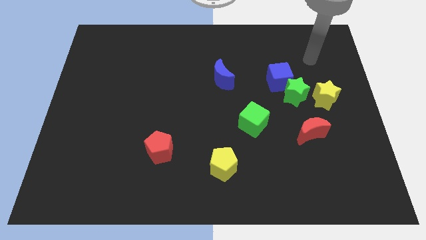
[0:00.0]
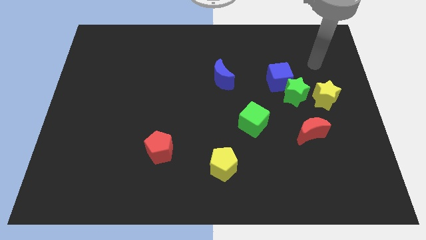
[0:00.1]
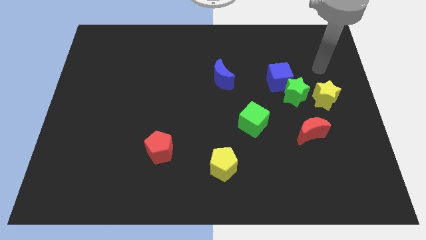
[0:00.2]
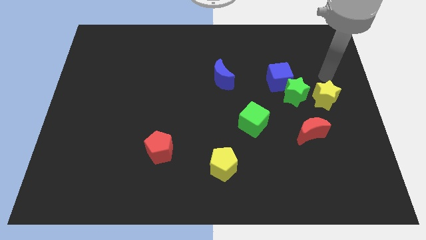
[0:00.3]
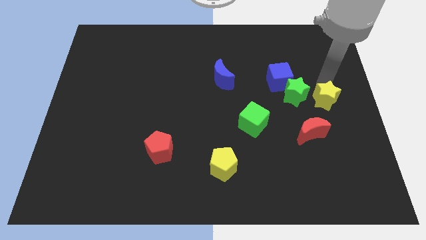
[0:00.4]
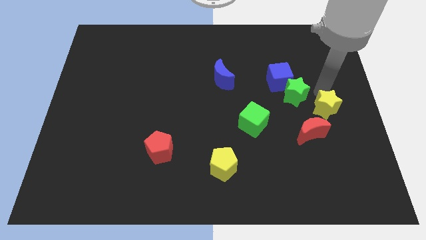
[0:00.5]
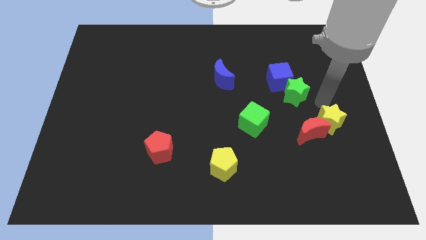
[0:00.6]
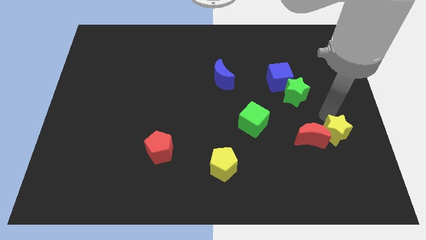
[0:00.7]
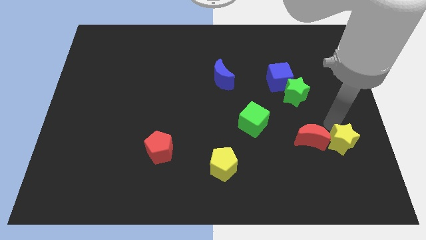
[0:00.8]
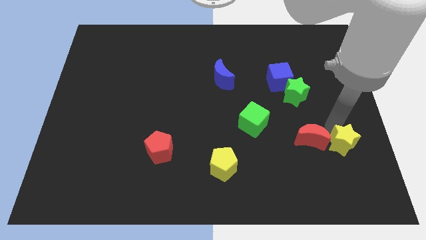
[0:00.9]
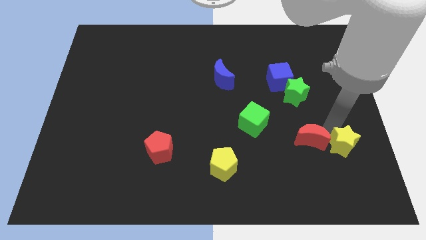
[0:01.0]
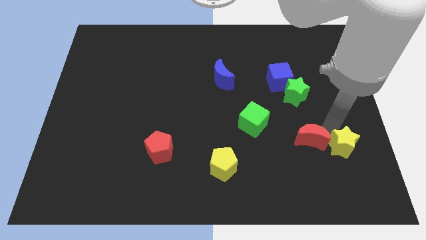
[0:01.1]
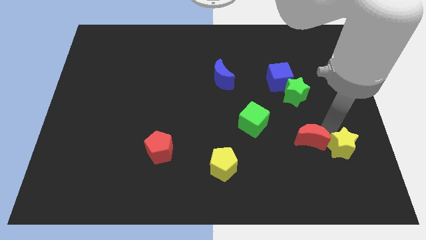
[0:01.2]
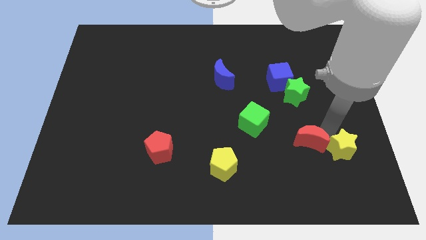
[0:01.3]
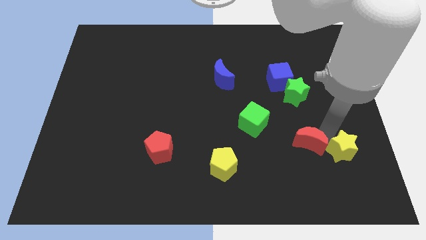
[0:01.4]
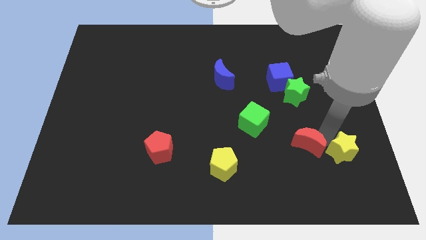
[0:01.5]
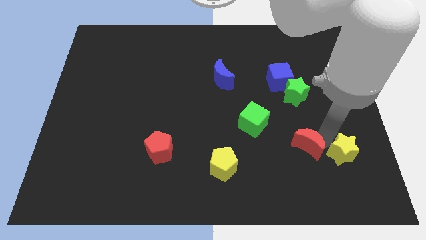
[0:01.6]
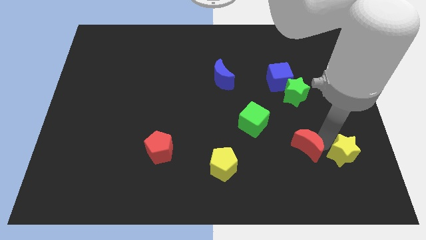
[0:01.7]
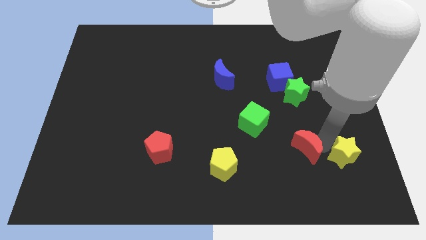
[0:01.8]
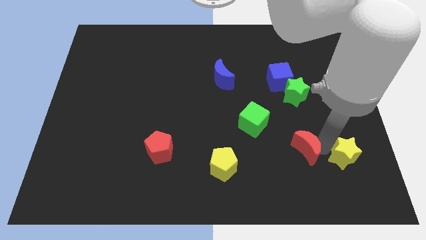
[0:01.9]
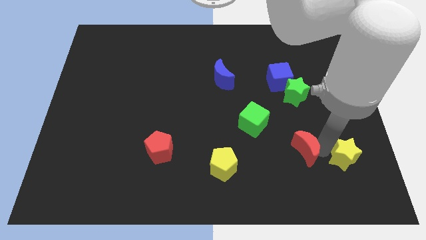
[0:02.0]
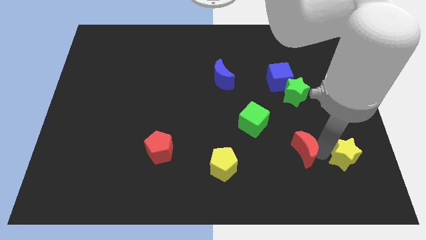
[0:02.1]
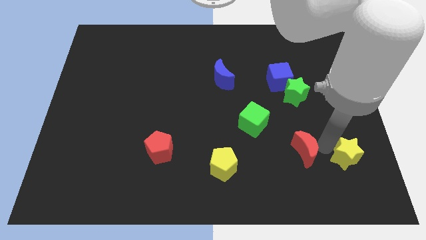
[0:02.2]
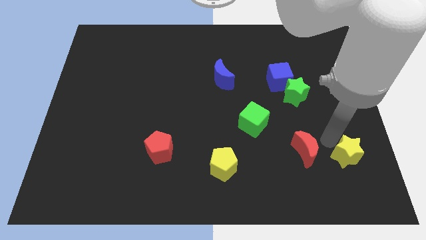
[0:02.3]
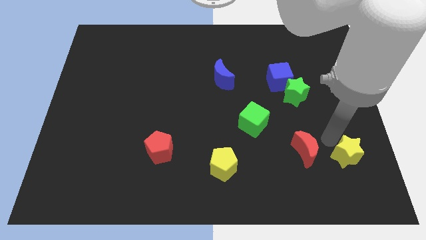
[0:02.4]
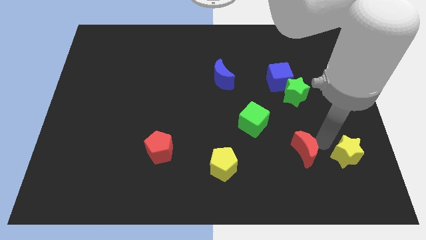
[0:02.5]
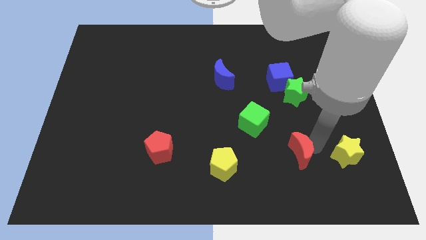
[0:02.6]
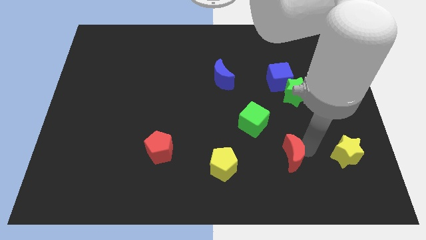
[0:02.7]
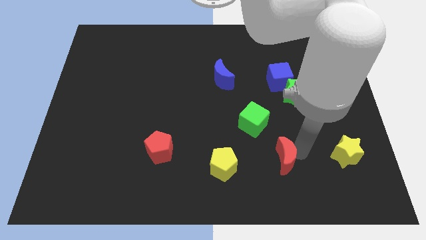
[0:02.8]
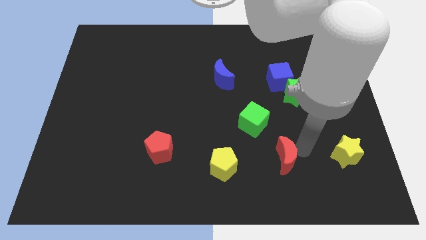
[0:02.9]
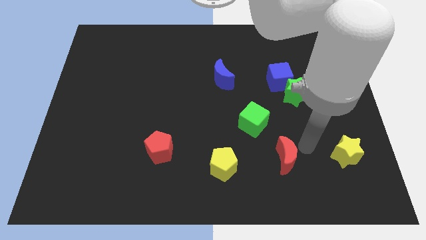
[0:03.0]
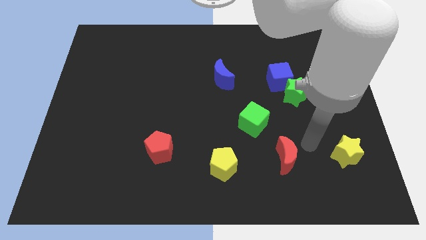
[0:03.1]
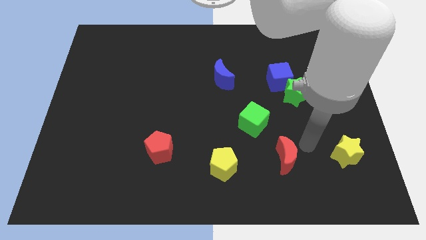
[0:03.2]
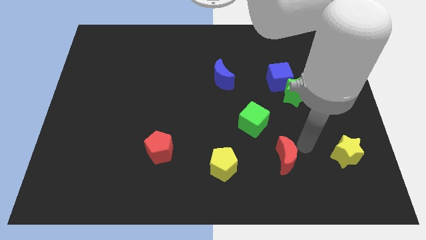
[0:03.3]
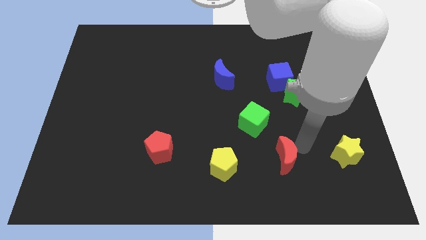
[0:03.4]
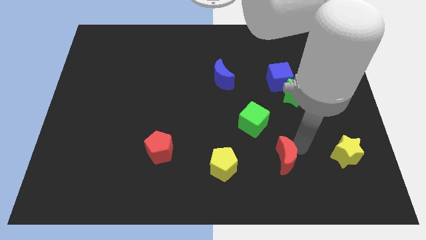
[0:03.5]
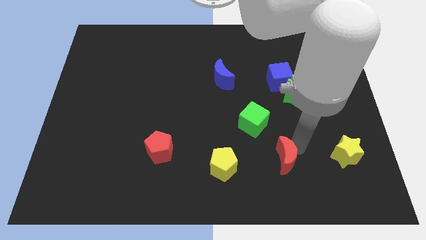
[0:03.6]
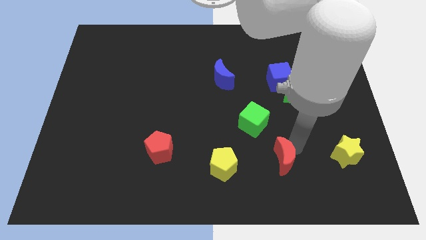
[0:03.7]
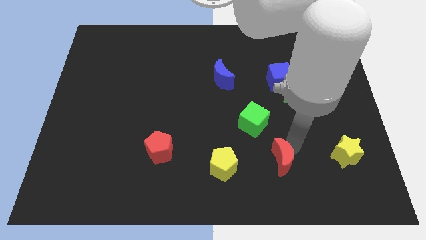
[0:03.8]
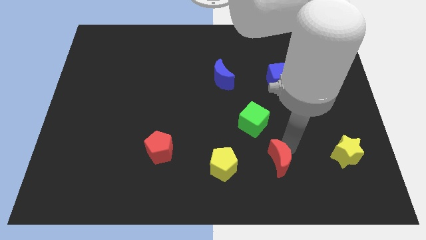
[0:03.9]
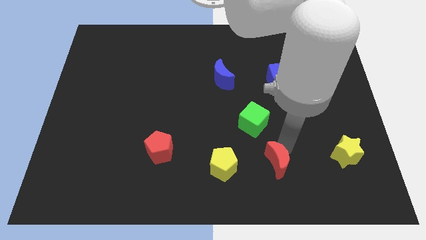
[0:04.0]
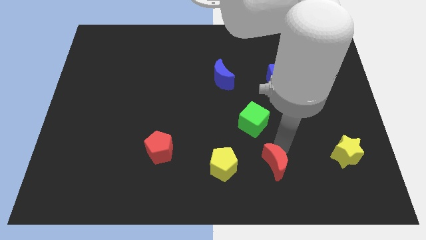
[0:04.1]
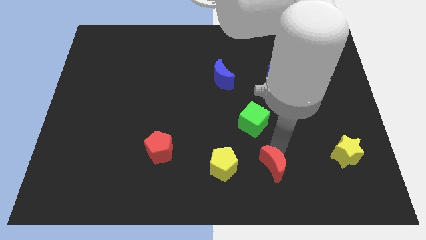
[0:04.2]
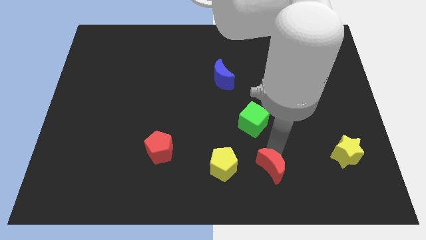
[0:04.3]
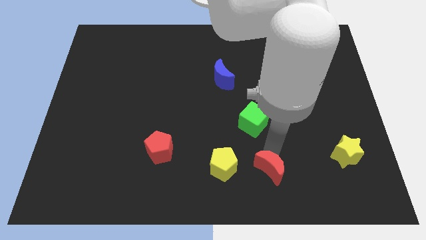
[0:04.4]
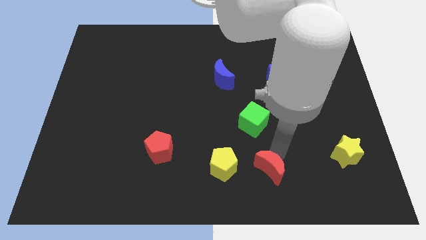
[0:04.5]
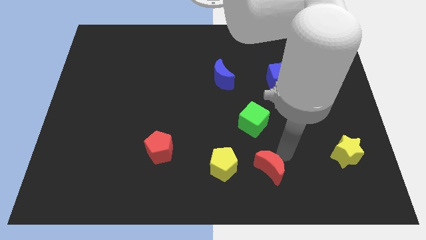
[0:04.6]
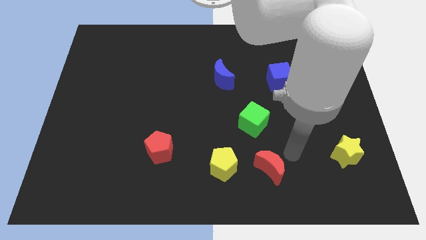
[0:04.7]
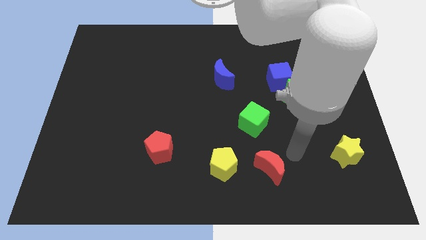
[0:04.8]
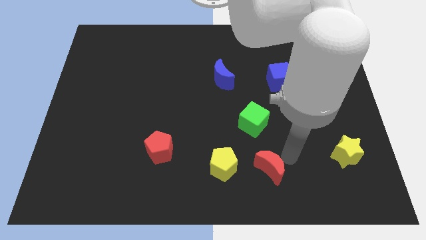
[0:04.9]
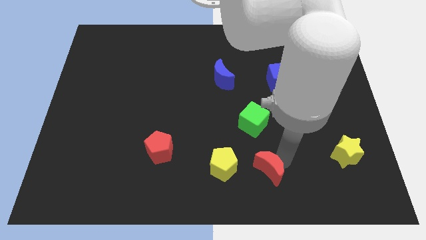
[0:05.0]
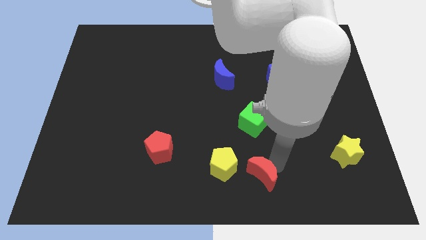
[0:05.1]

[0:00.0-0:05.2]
push the red moon to the bottom side
